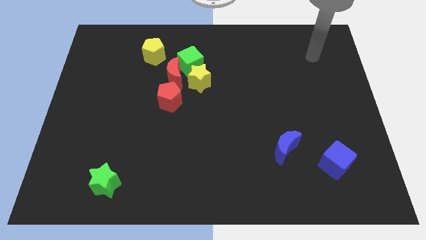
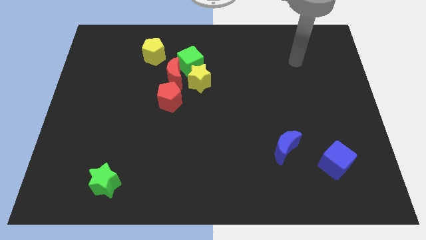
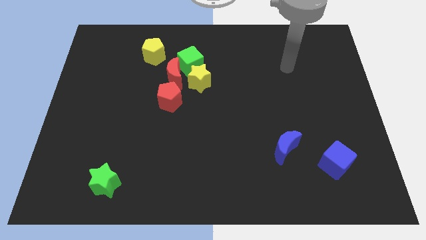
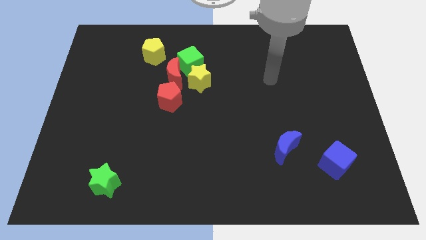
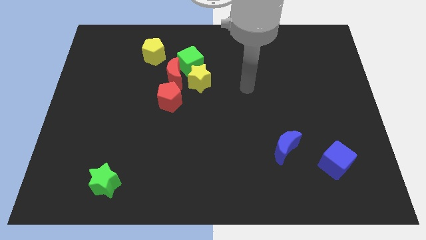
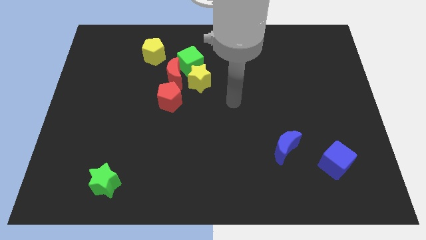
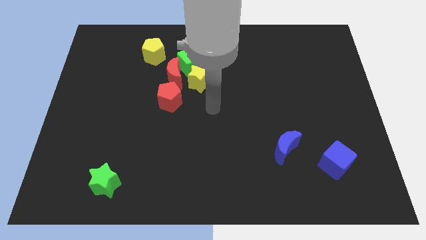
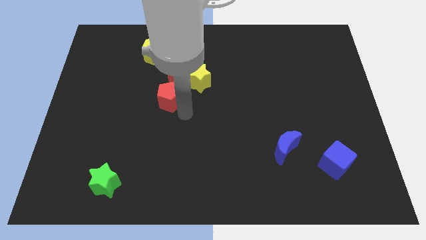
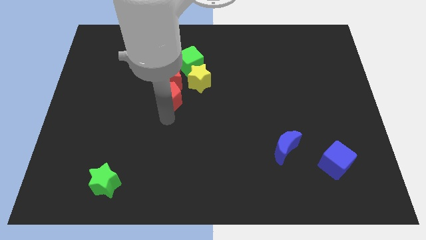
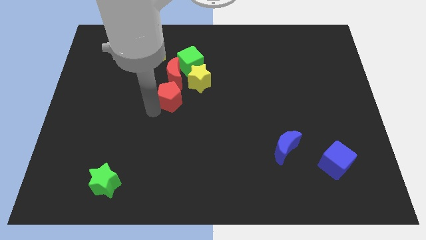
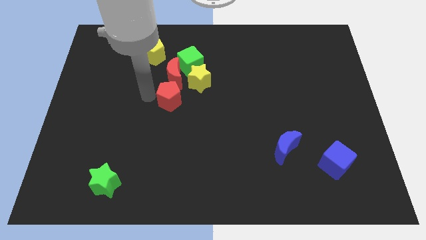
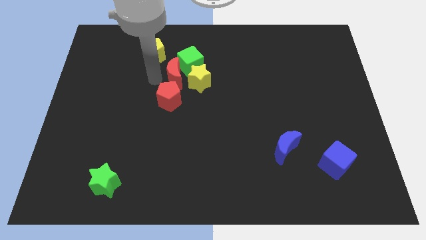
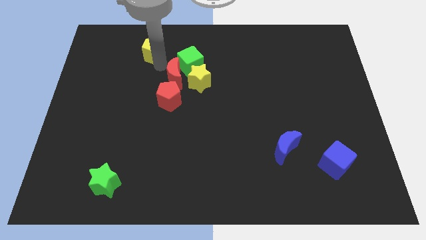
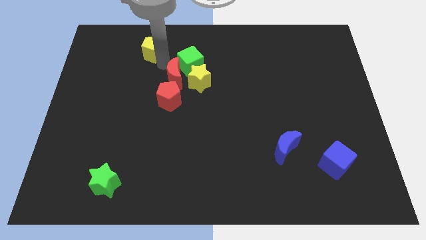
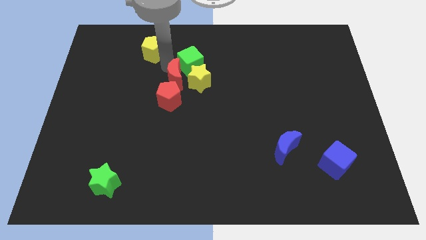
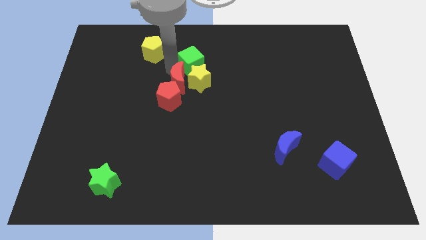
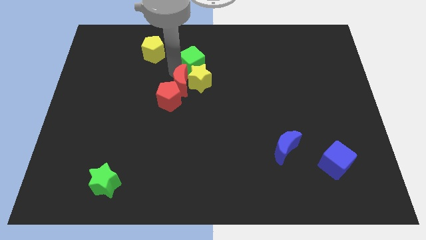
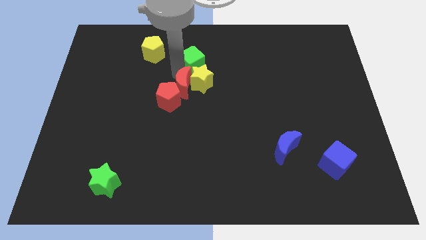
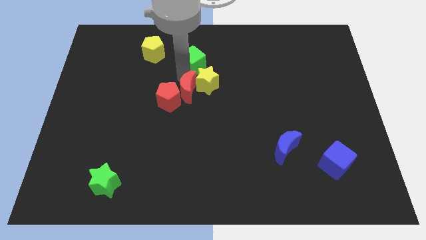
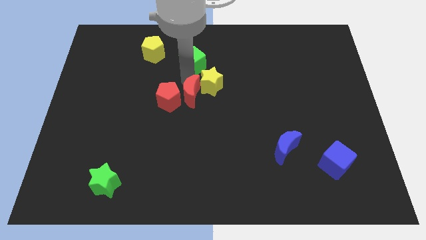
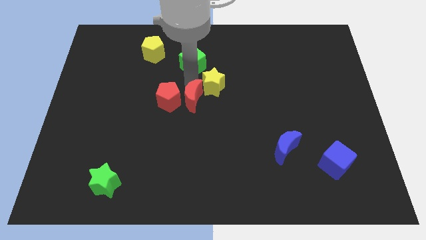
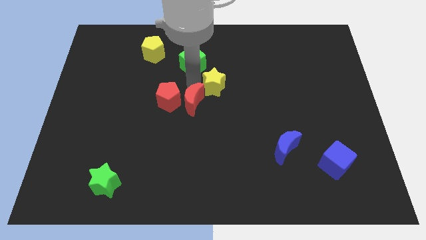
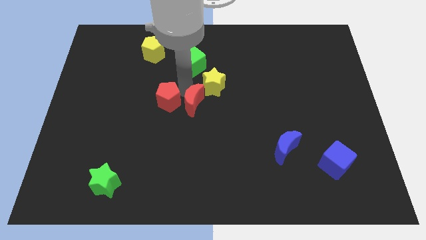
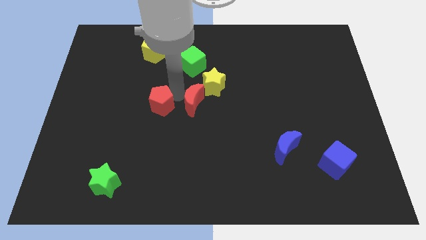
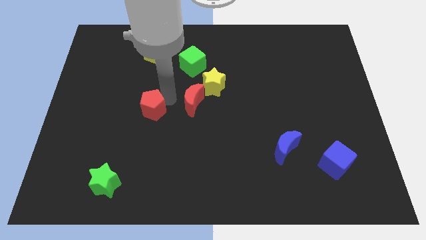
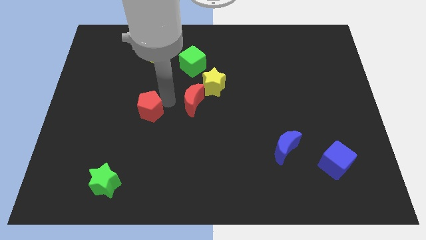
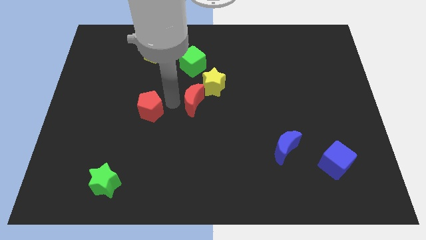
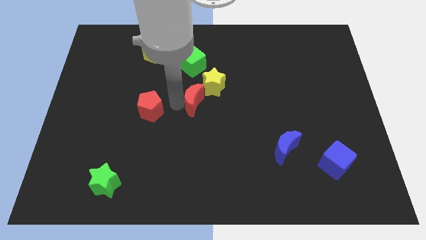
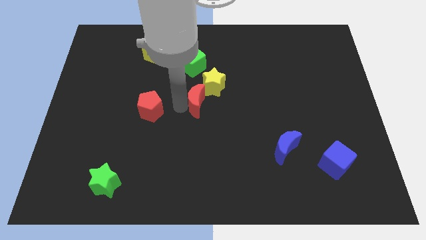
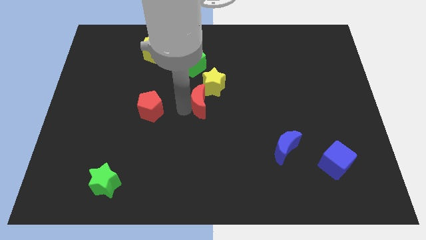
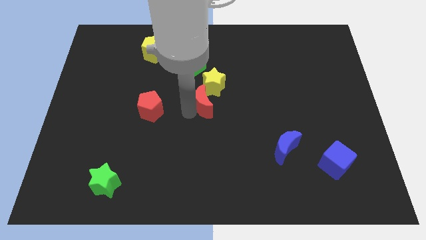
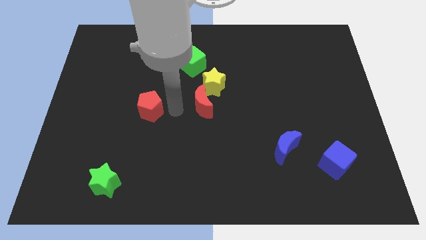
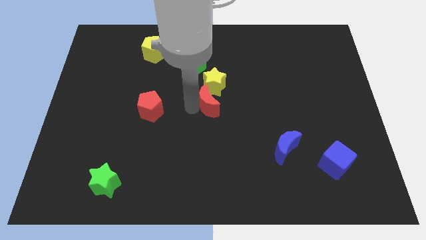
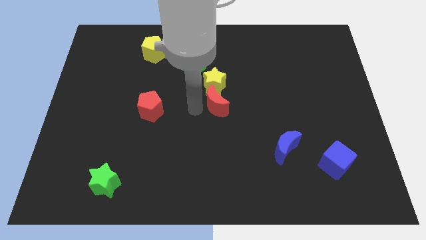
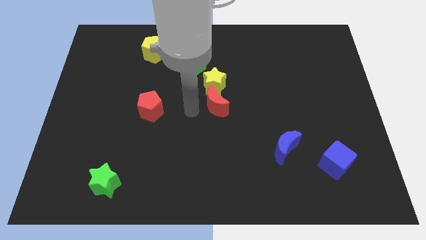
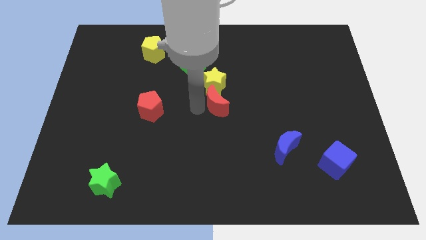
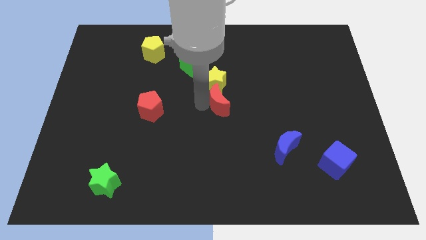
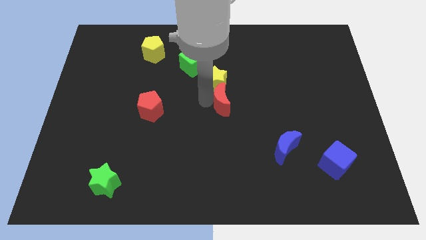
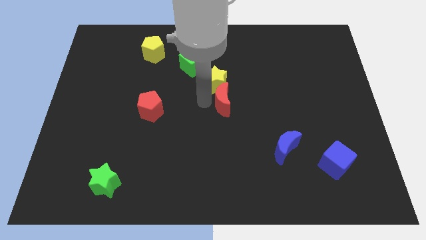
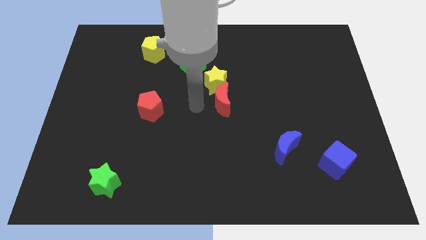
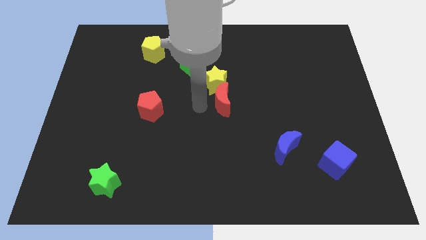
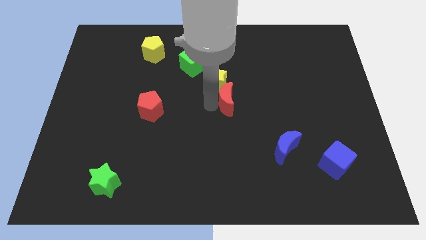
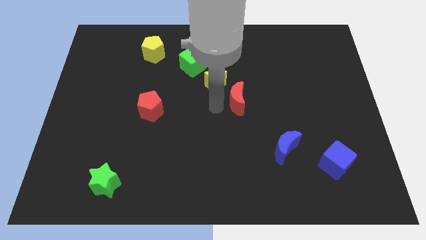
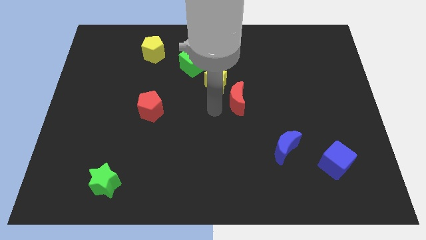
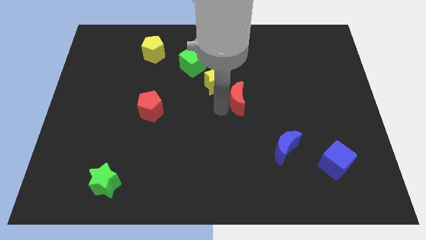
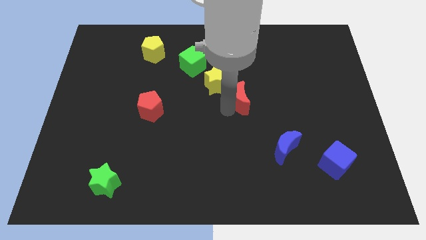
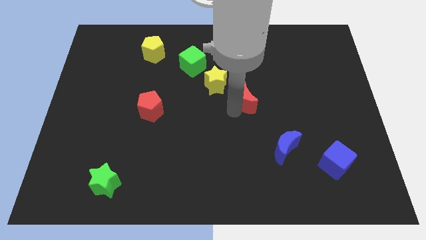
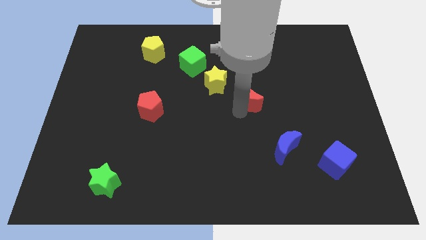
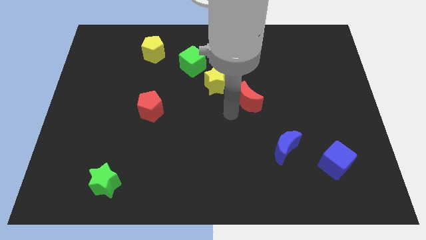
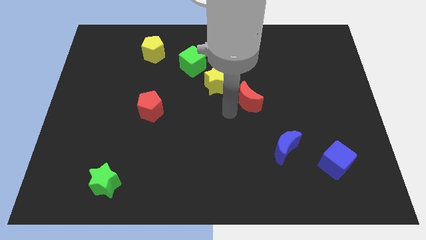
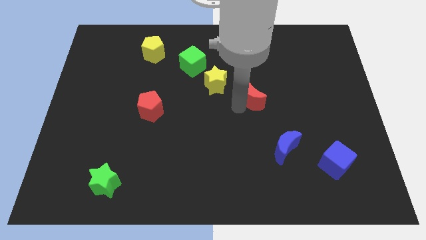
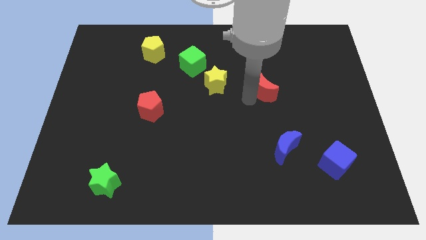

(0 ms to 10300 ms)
move the red moon right

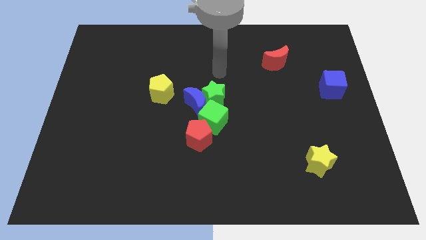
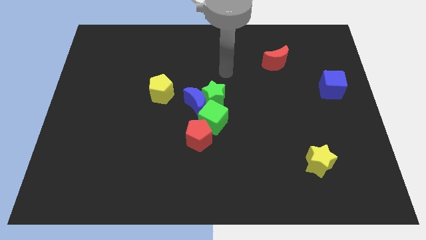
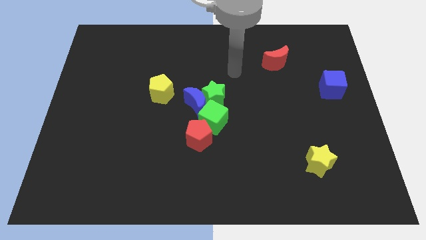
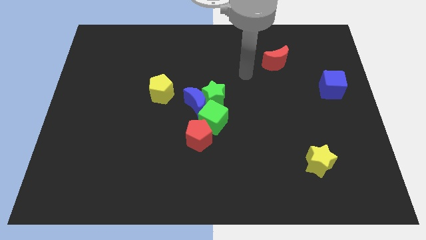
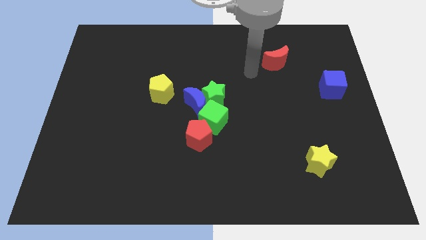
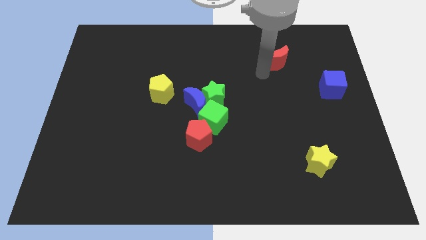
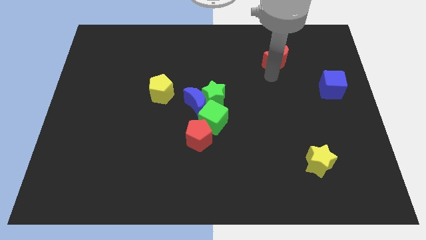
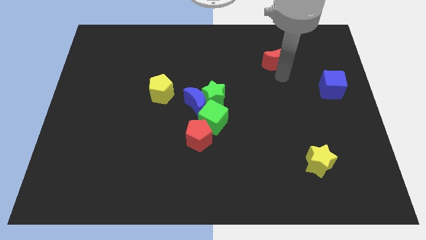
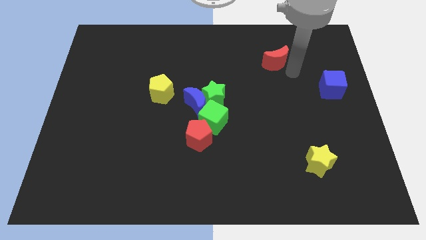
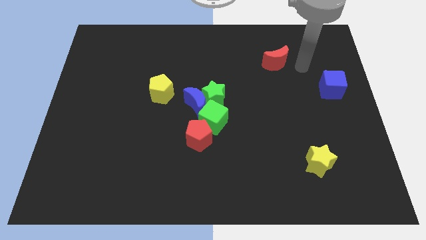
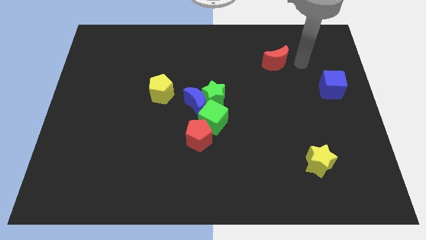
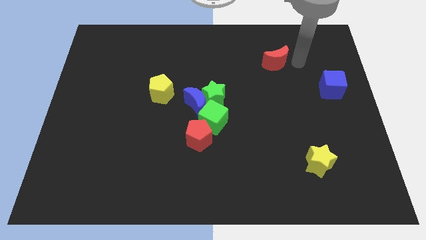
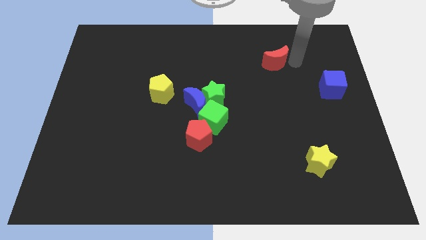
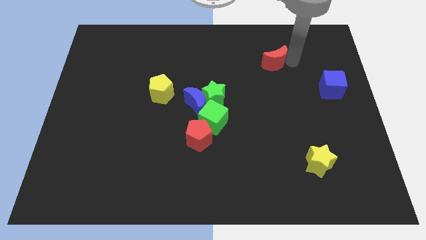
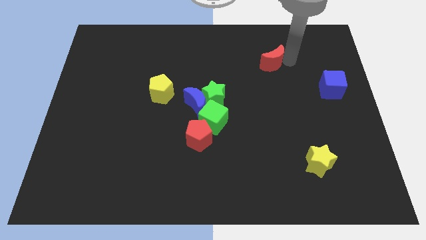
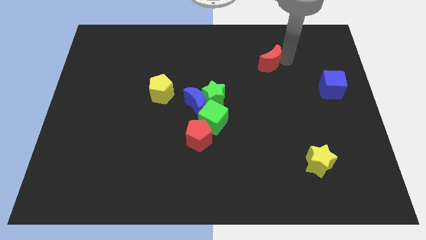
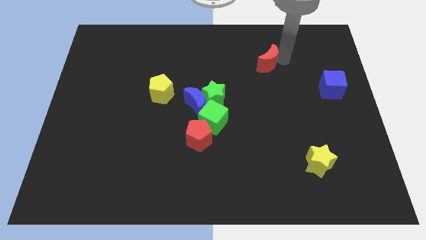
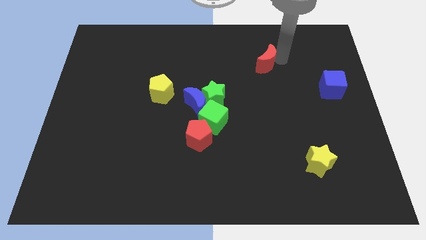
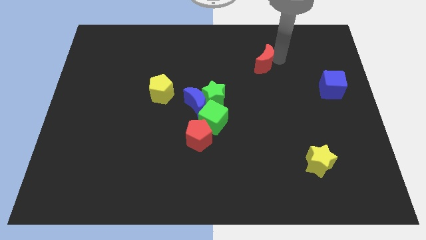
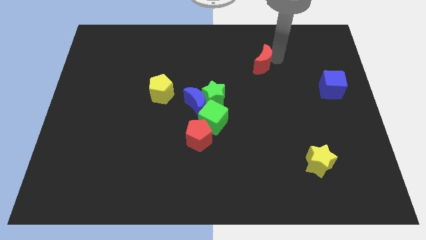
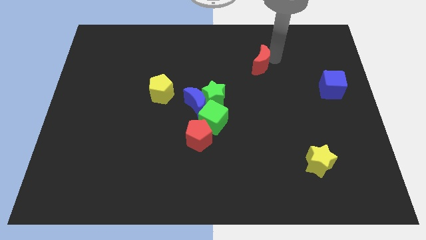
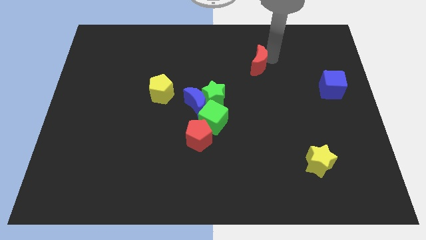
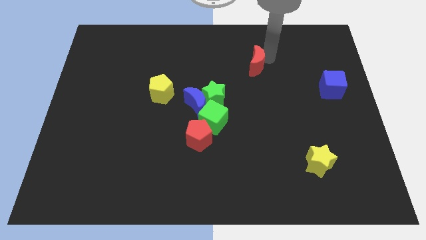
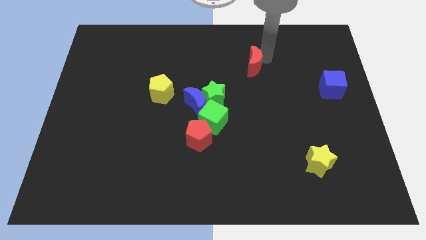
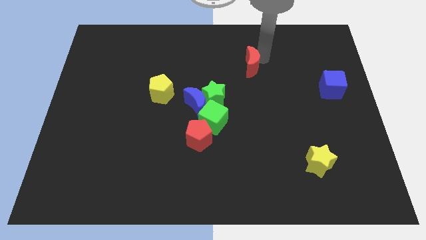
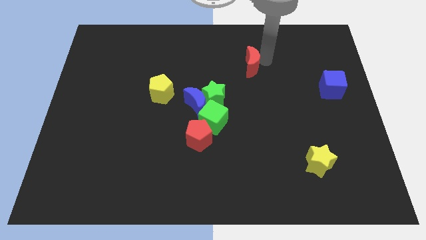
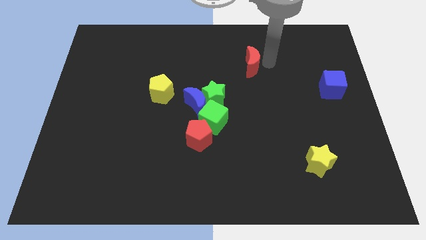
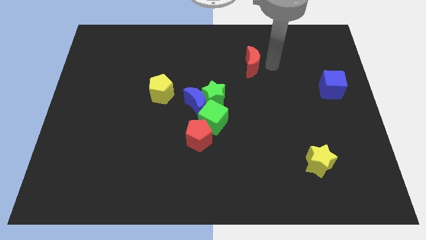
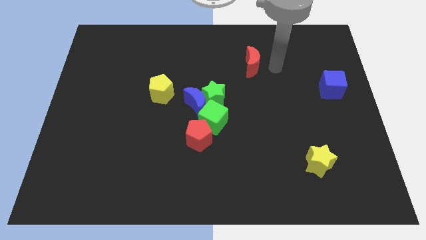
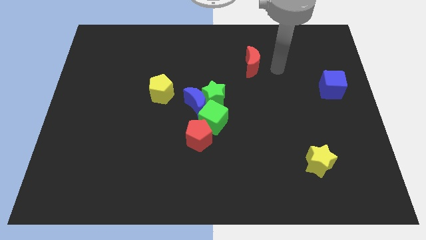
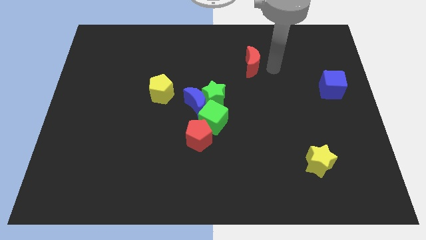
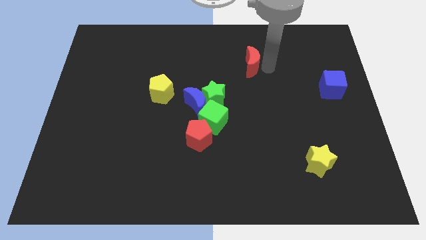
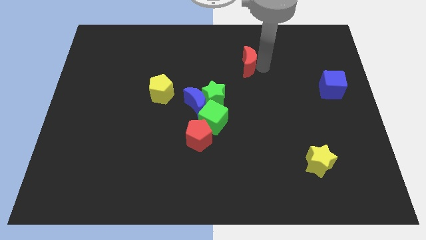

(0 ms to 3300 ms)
slightly push the red moon to the left
